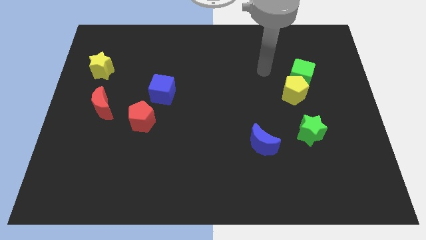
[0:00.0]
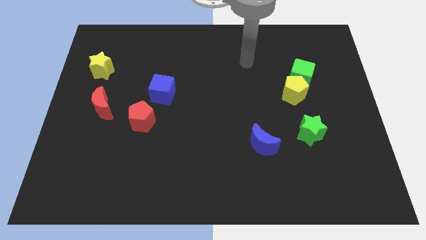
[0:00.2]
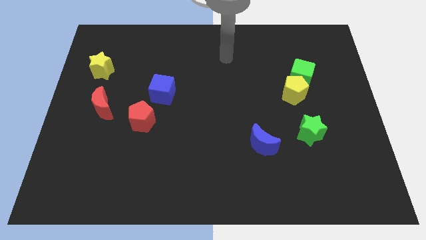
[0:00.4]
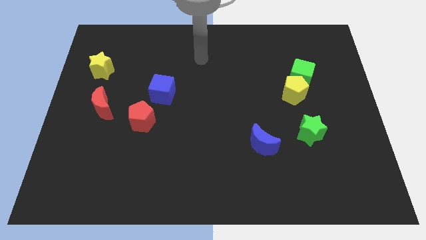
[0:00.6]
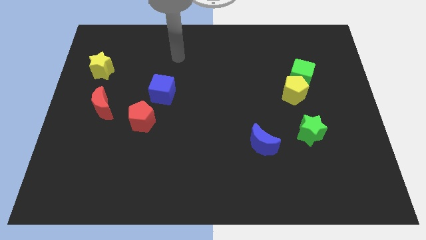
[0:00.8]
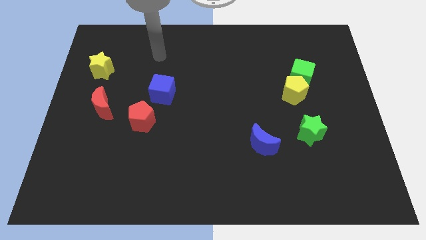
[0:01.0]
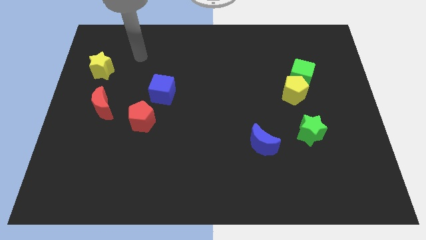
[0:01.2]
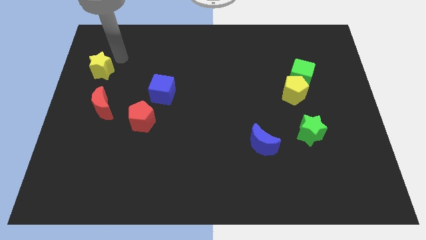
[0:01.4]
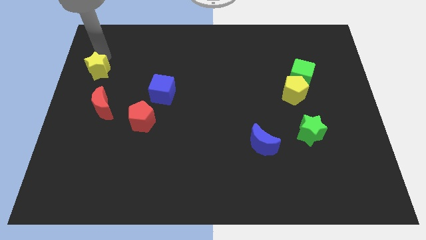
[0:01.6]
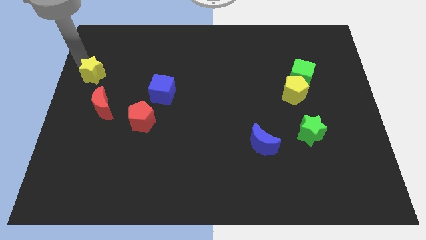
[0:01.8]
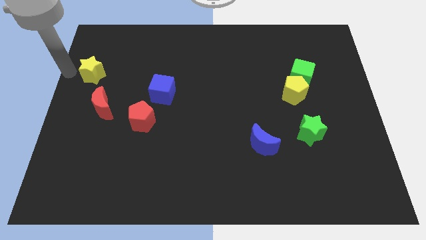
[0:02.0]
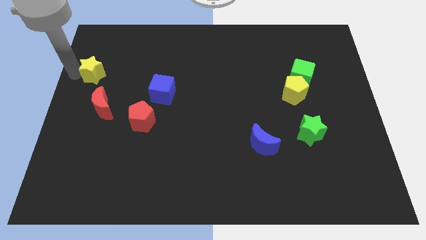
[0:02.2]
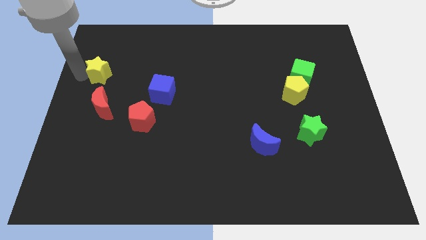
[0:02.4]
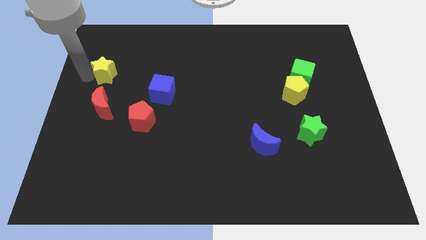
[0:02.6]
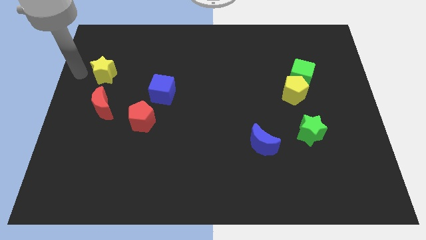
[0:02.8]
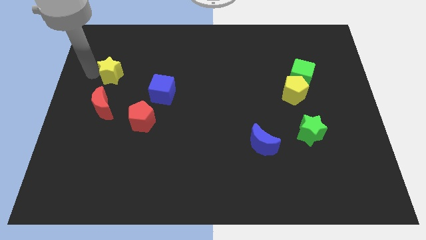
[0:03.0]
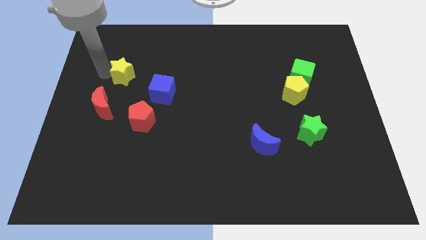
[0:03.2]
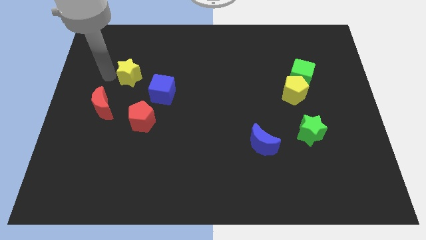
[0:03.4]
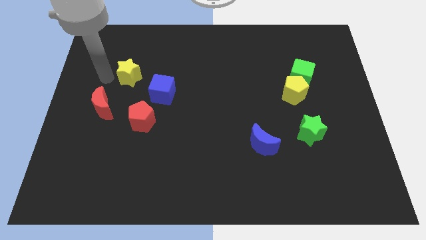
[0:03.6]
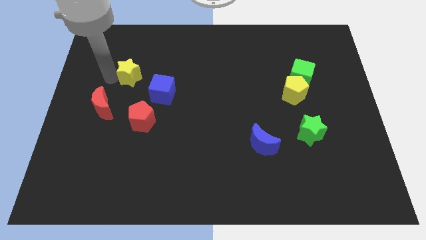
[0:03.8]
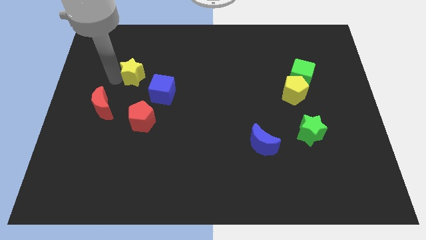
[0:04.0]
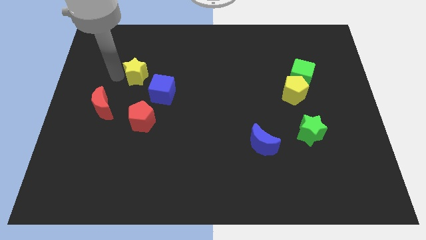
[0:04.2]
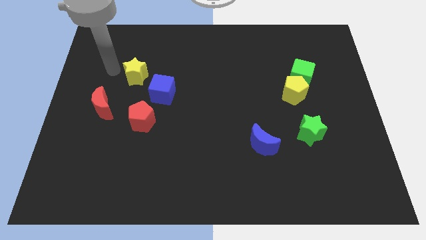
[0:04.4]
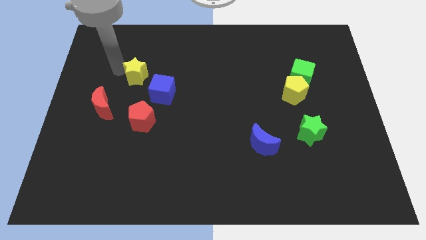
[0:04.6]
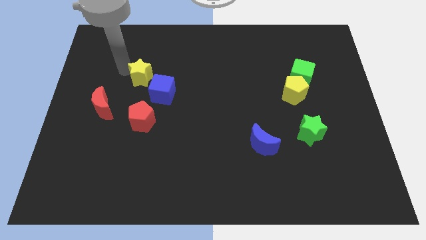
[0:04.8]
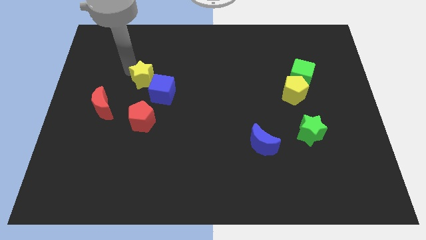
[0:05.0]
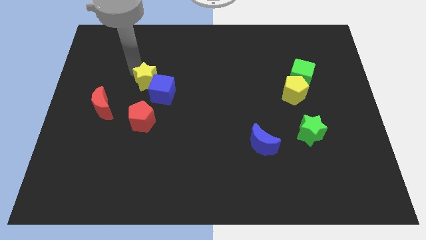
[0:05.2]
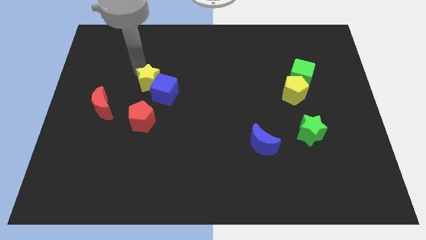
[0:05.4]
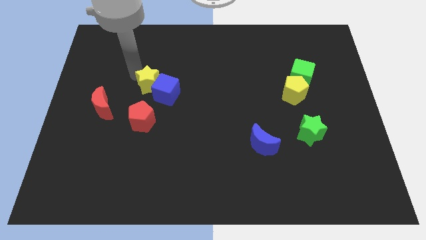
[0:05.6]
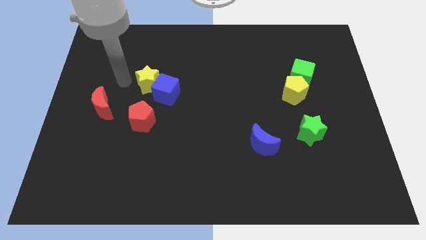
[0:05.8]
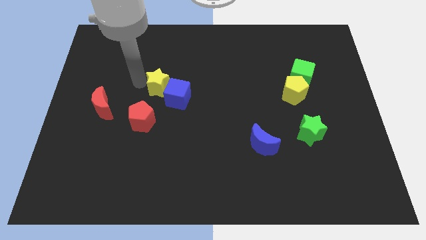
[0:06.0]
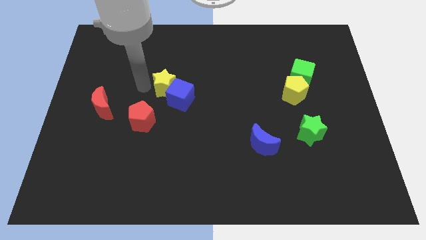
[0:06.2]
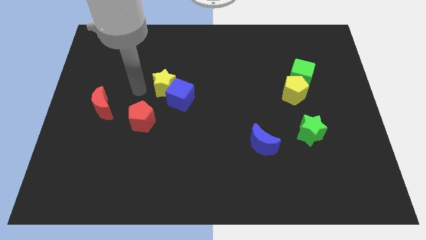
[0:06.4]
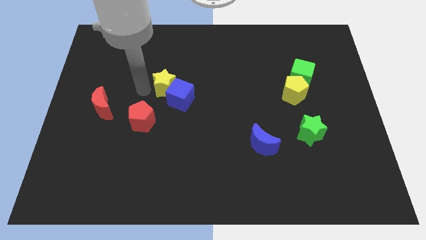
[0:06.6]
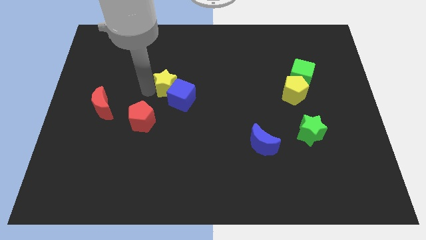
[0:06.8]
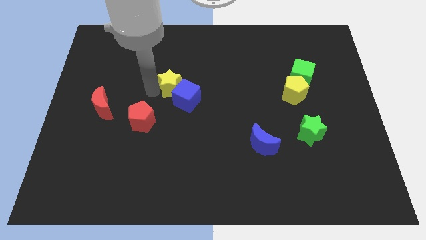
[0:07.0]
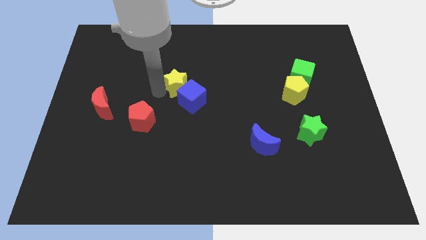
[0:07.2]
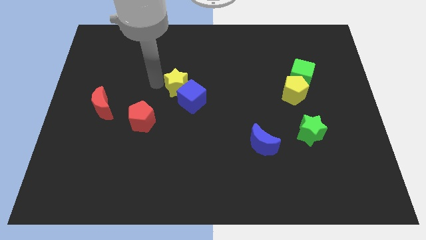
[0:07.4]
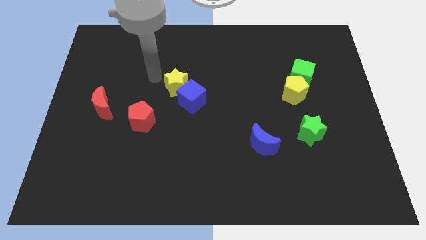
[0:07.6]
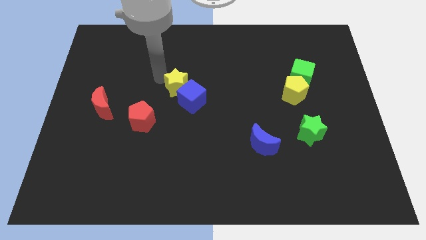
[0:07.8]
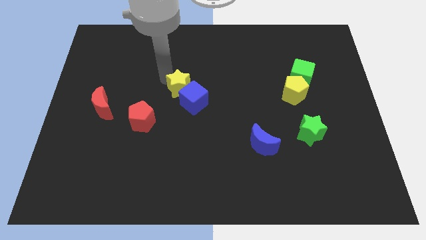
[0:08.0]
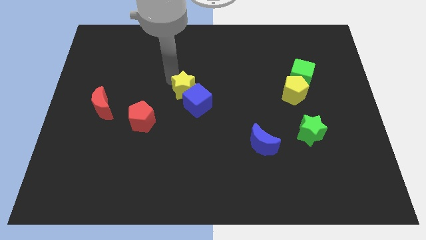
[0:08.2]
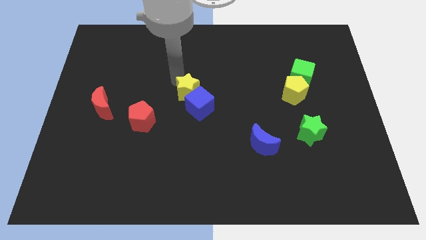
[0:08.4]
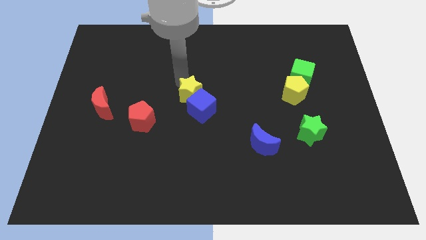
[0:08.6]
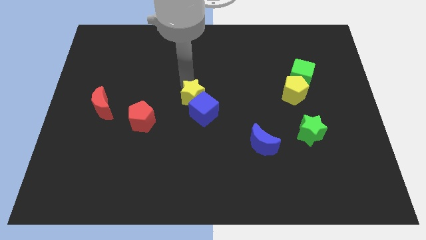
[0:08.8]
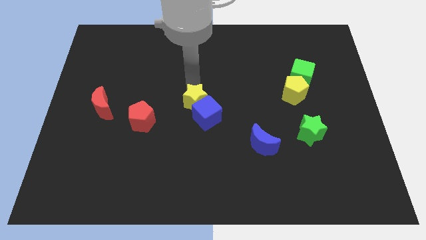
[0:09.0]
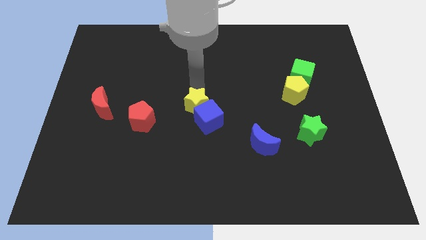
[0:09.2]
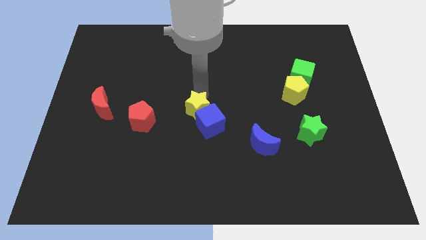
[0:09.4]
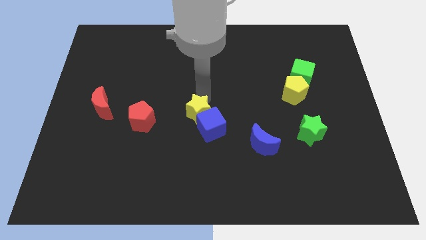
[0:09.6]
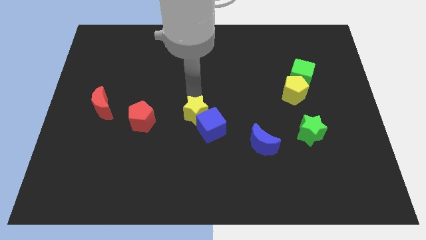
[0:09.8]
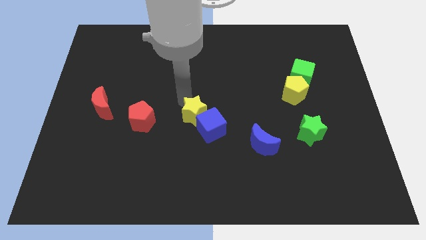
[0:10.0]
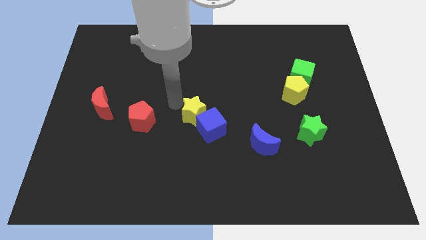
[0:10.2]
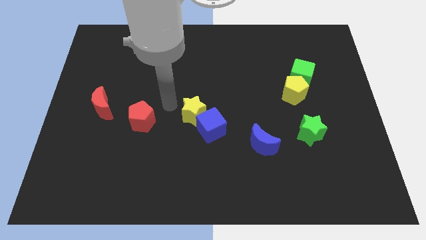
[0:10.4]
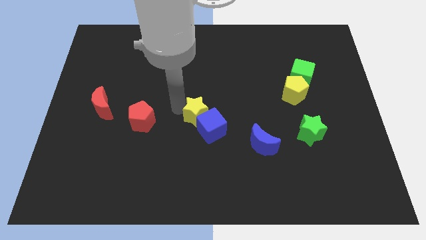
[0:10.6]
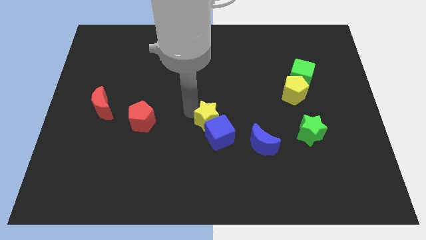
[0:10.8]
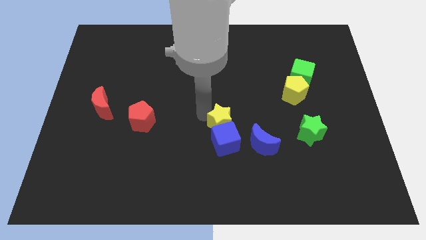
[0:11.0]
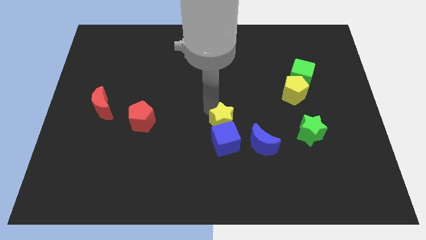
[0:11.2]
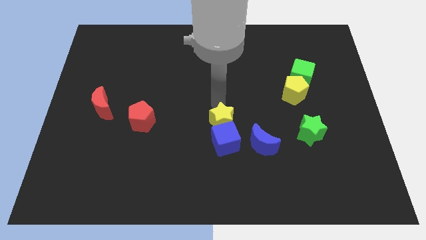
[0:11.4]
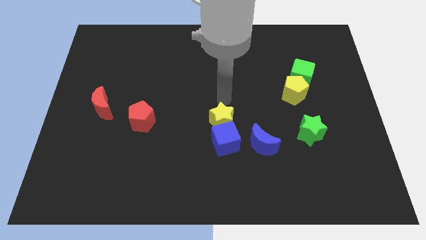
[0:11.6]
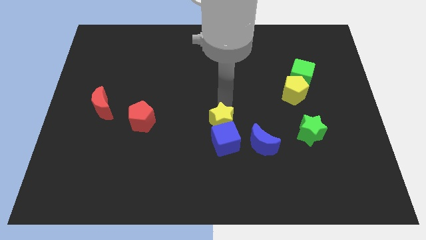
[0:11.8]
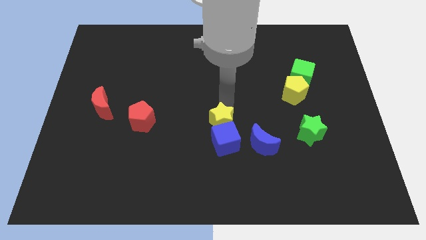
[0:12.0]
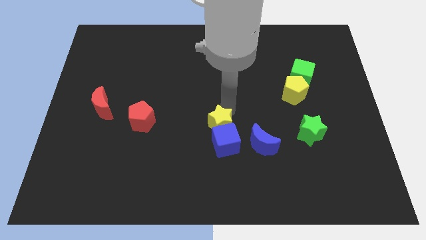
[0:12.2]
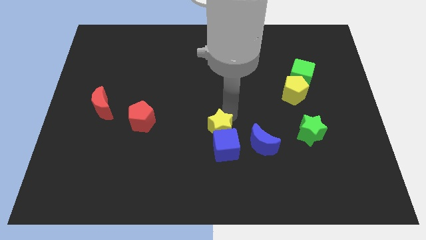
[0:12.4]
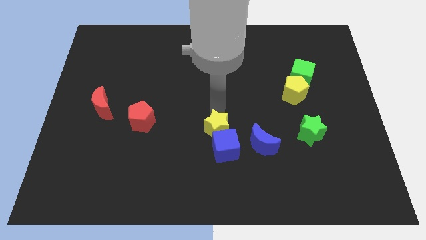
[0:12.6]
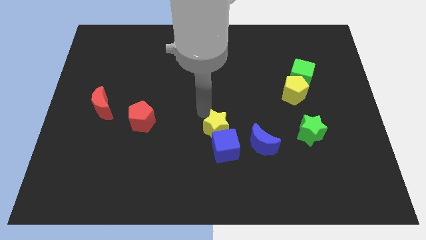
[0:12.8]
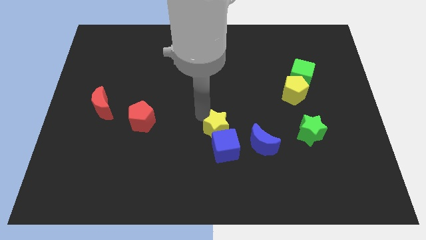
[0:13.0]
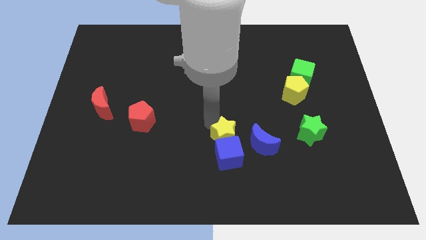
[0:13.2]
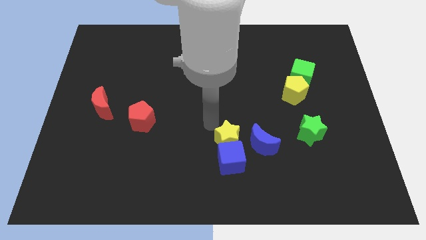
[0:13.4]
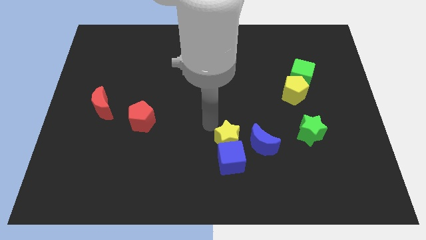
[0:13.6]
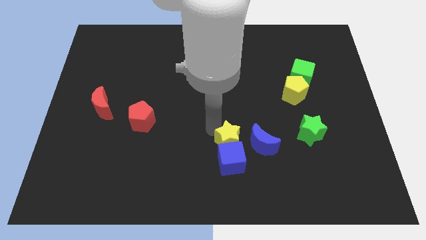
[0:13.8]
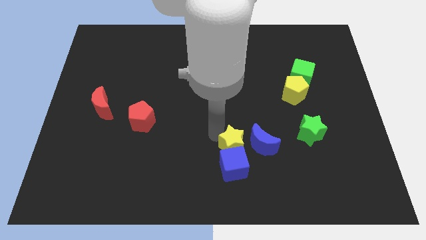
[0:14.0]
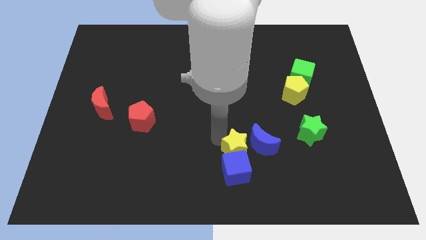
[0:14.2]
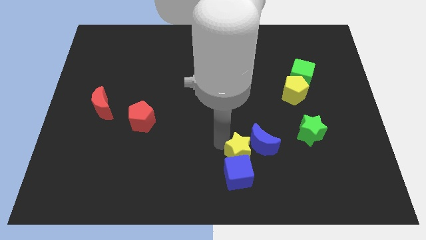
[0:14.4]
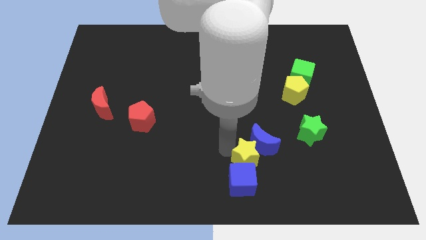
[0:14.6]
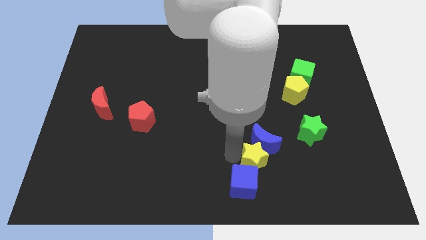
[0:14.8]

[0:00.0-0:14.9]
push the yellow star diagonally down and to the right of the blue moon
